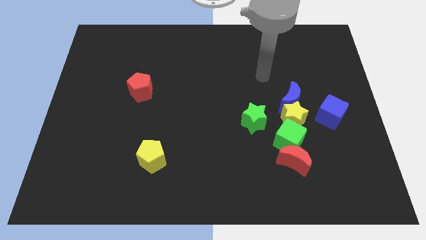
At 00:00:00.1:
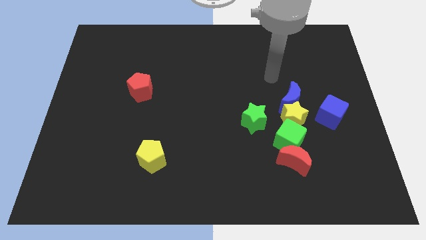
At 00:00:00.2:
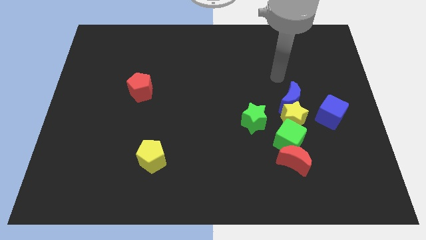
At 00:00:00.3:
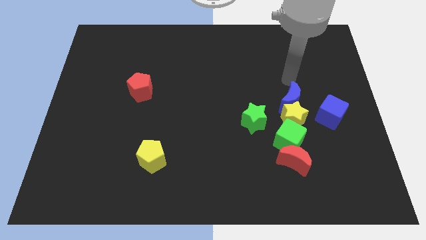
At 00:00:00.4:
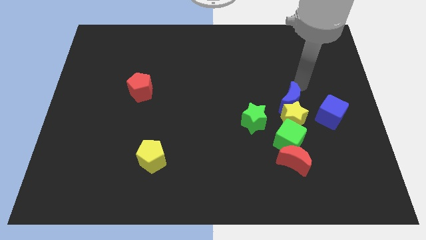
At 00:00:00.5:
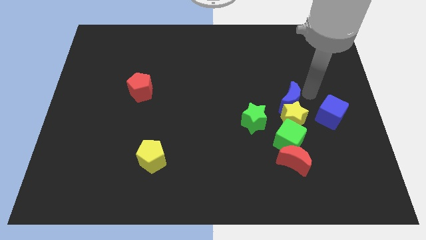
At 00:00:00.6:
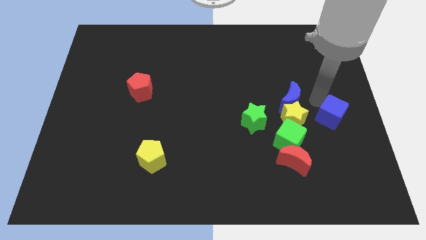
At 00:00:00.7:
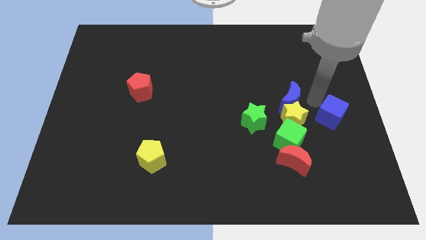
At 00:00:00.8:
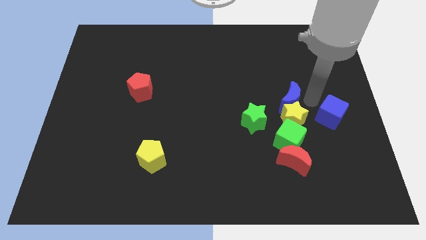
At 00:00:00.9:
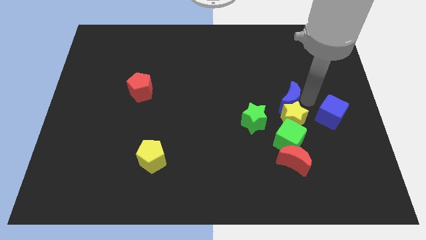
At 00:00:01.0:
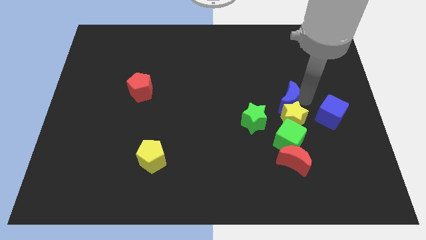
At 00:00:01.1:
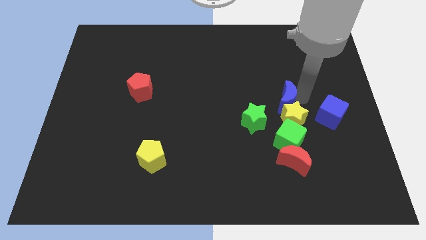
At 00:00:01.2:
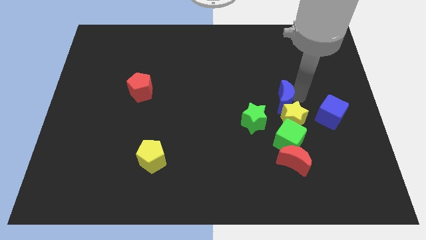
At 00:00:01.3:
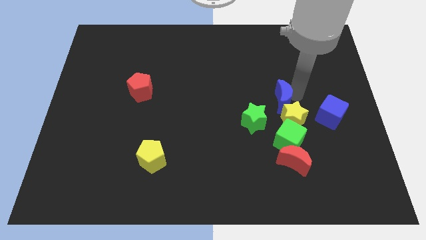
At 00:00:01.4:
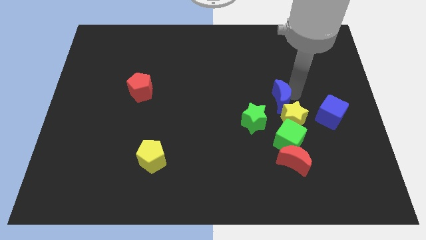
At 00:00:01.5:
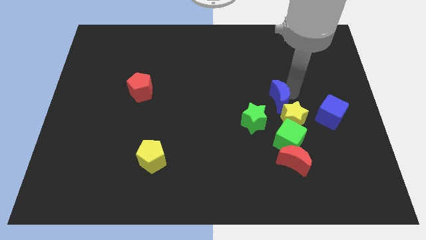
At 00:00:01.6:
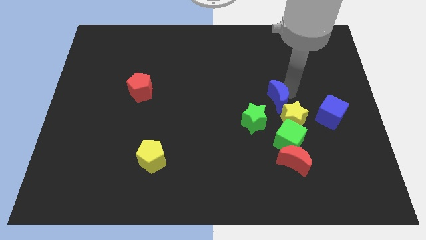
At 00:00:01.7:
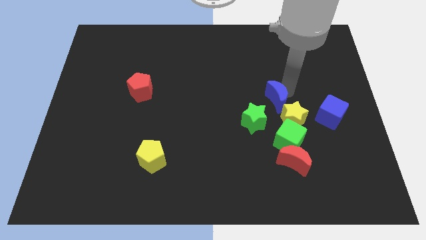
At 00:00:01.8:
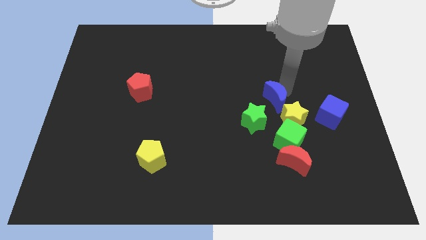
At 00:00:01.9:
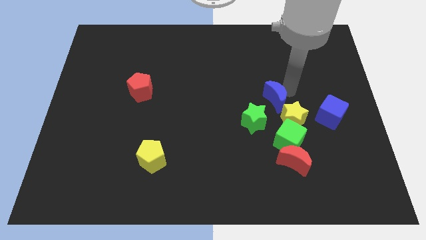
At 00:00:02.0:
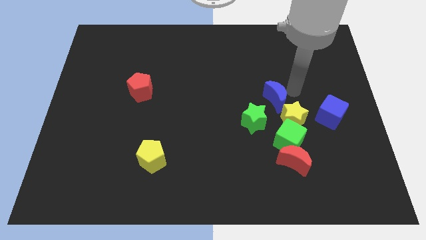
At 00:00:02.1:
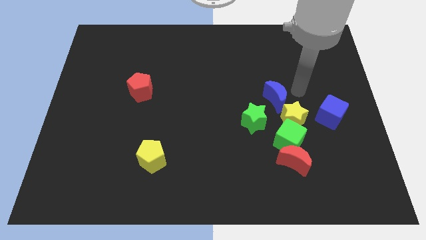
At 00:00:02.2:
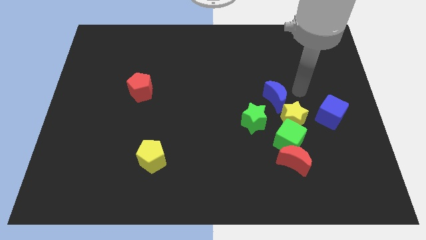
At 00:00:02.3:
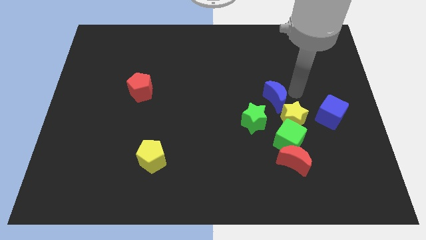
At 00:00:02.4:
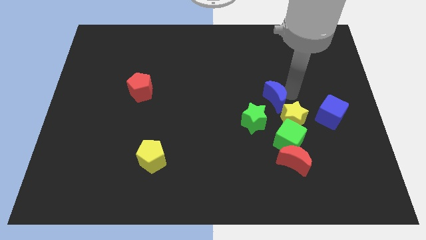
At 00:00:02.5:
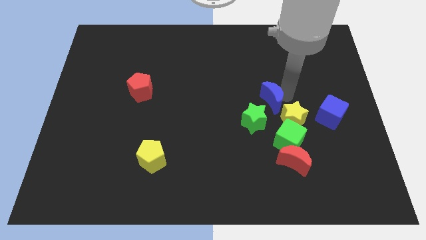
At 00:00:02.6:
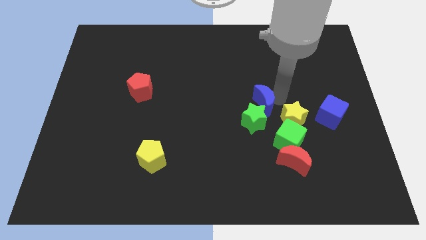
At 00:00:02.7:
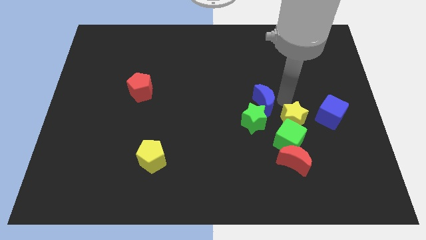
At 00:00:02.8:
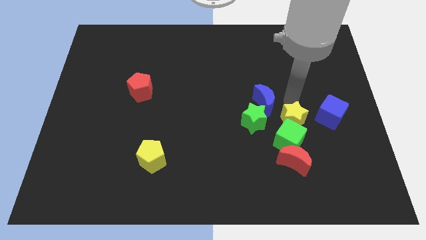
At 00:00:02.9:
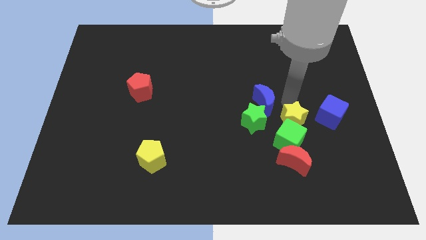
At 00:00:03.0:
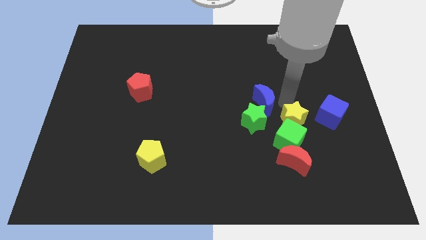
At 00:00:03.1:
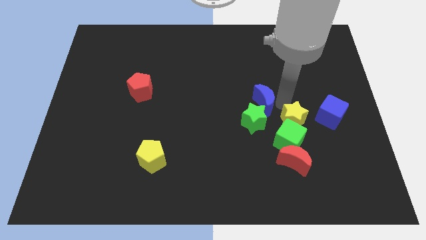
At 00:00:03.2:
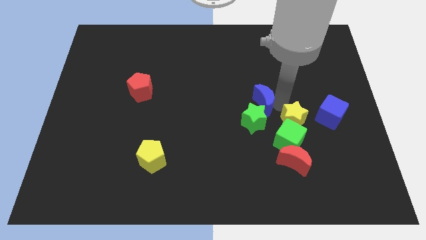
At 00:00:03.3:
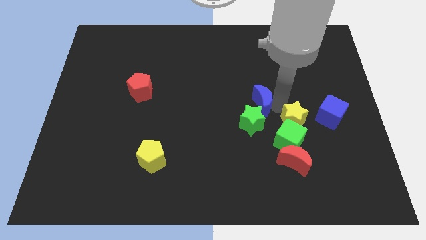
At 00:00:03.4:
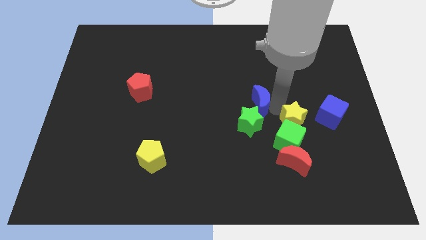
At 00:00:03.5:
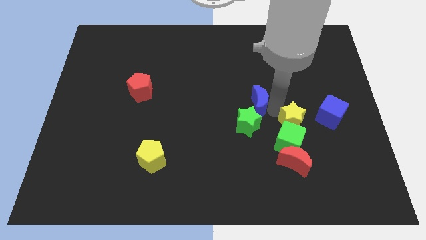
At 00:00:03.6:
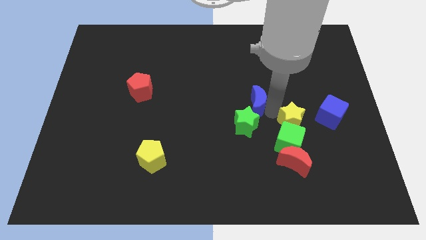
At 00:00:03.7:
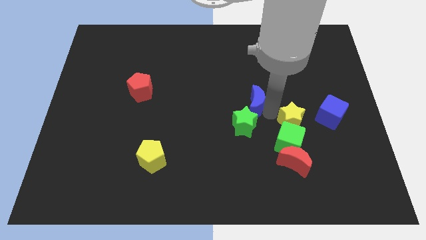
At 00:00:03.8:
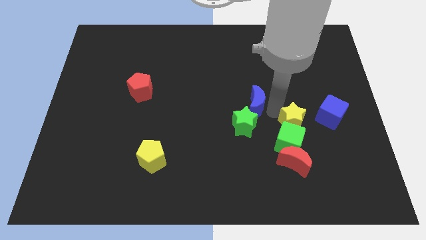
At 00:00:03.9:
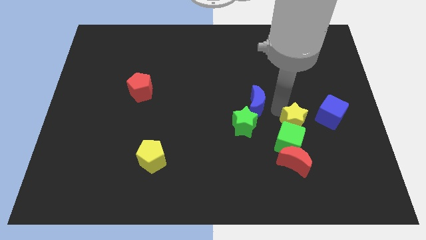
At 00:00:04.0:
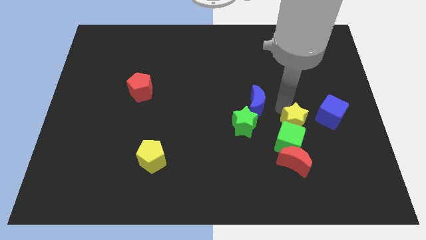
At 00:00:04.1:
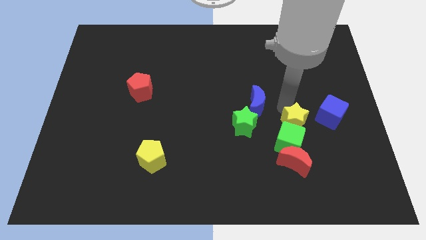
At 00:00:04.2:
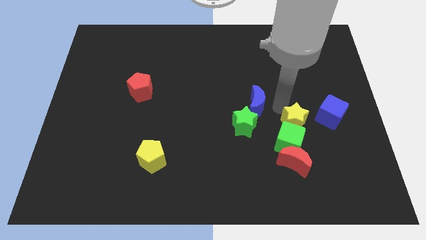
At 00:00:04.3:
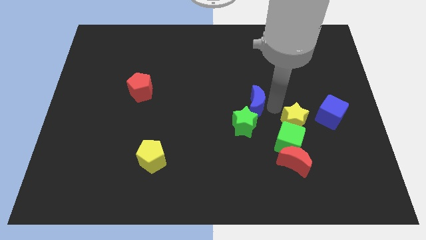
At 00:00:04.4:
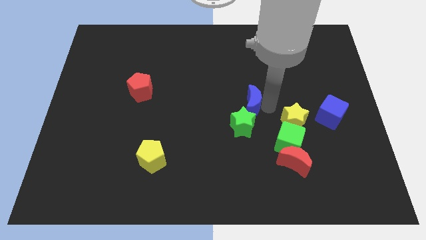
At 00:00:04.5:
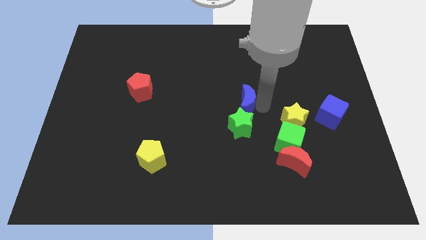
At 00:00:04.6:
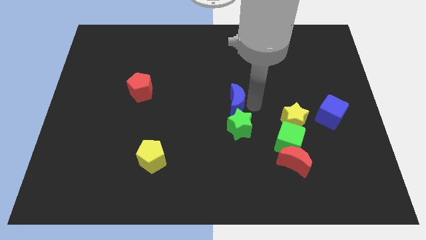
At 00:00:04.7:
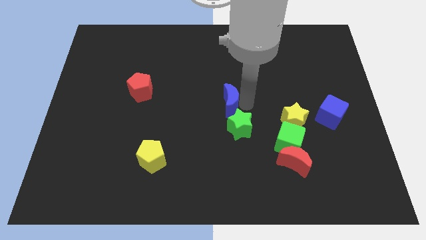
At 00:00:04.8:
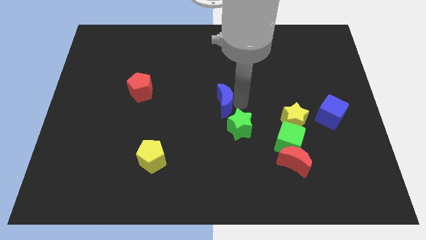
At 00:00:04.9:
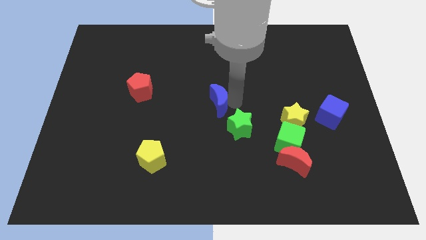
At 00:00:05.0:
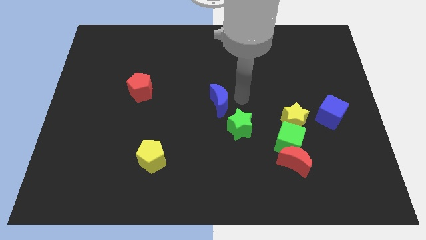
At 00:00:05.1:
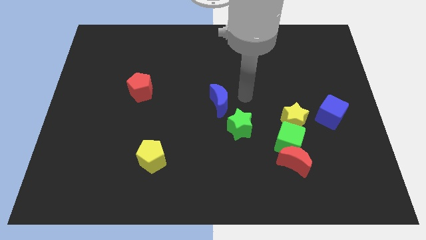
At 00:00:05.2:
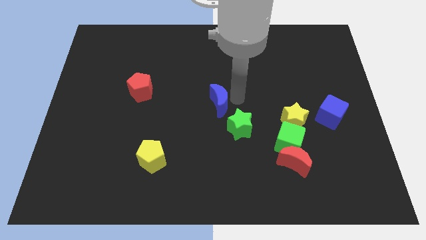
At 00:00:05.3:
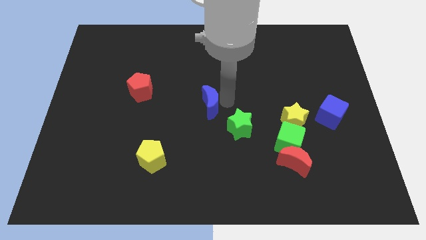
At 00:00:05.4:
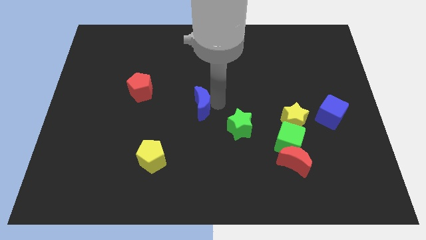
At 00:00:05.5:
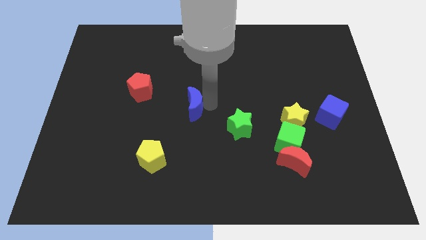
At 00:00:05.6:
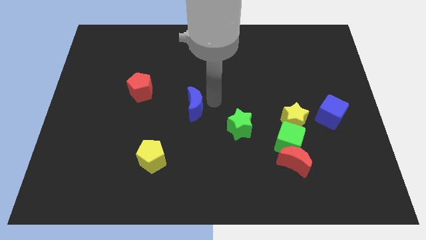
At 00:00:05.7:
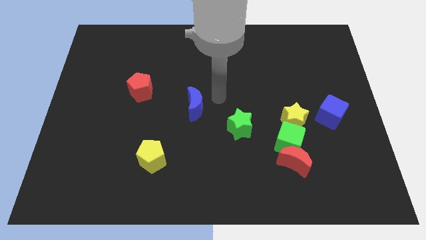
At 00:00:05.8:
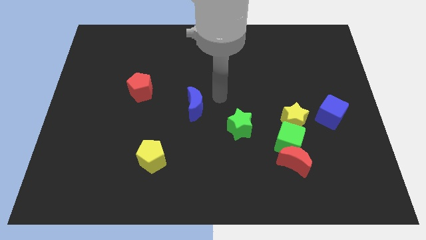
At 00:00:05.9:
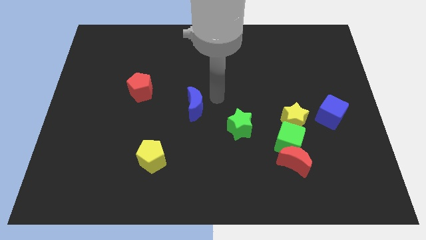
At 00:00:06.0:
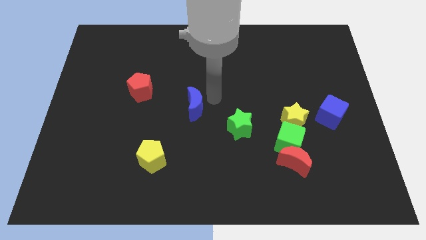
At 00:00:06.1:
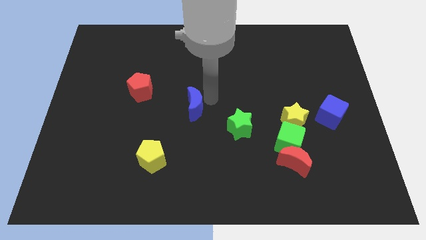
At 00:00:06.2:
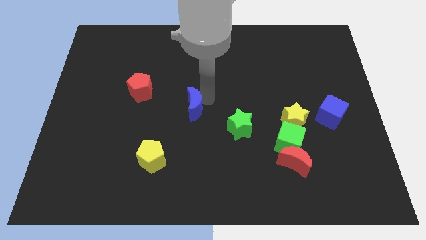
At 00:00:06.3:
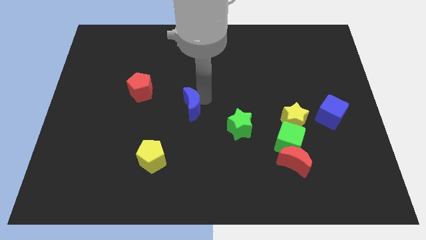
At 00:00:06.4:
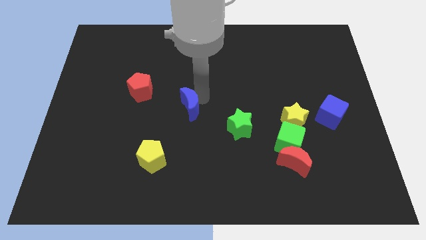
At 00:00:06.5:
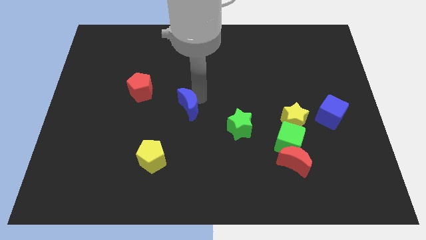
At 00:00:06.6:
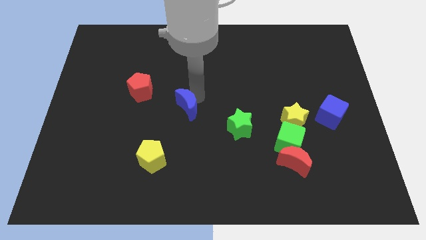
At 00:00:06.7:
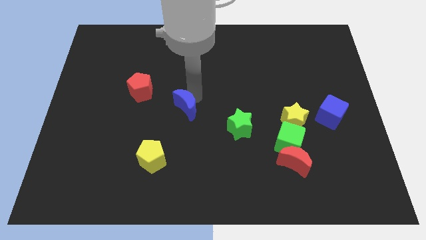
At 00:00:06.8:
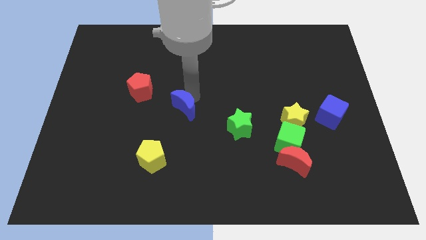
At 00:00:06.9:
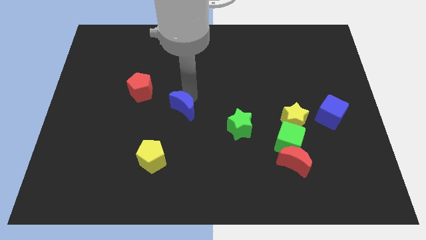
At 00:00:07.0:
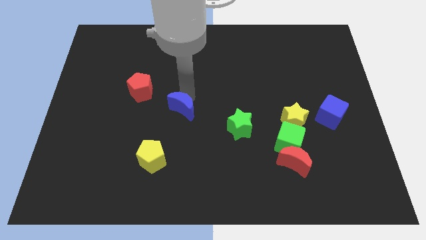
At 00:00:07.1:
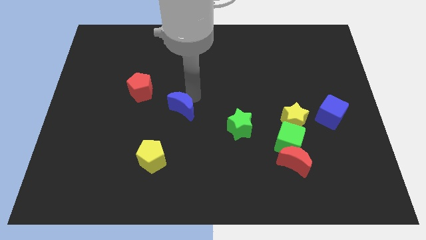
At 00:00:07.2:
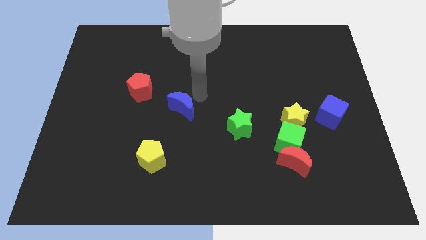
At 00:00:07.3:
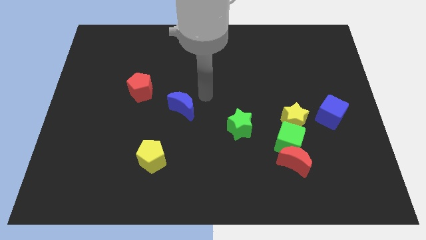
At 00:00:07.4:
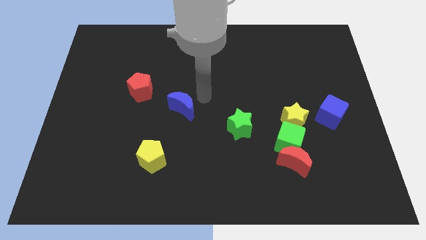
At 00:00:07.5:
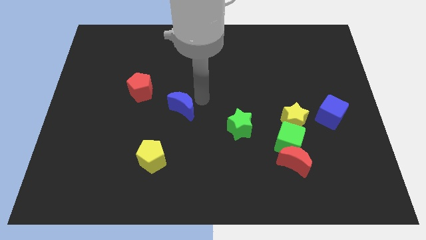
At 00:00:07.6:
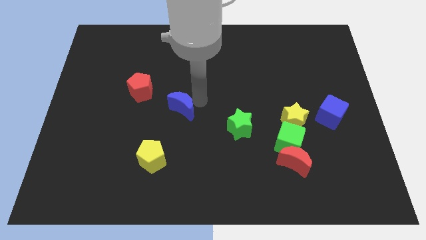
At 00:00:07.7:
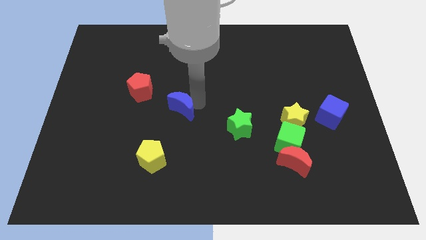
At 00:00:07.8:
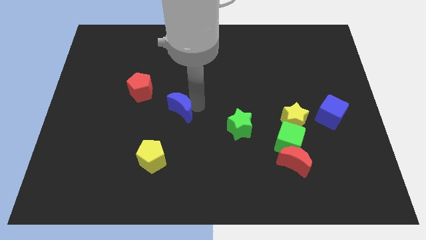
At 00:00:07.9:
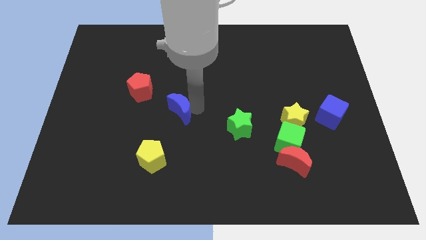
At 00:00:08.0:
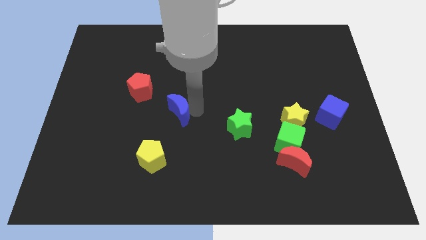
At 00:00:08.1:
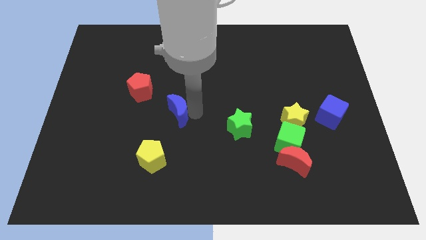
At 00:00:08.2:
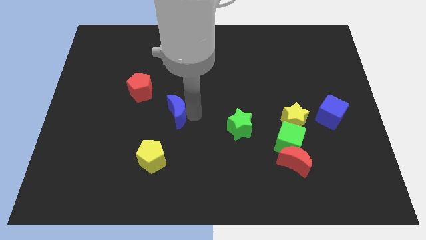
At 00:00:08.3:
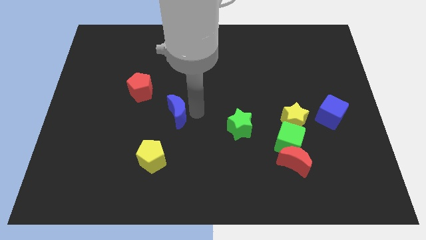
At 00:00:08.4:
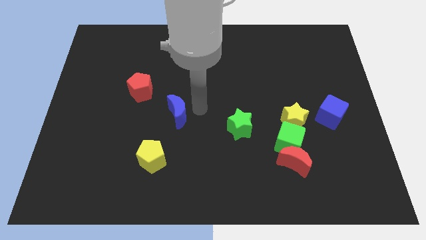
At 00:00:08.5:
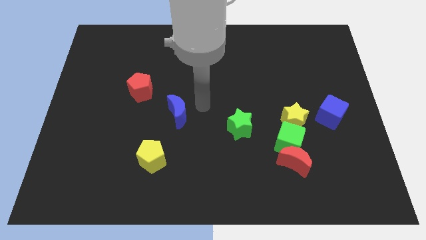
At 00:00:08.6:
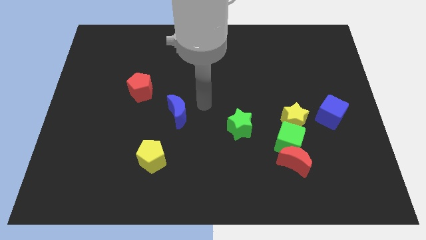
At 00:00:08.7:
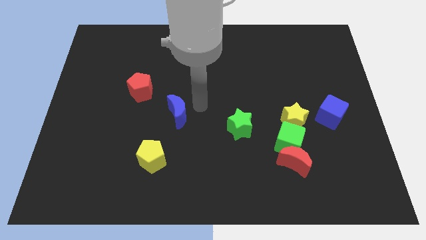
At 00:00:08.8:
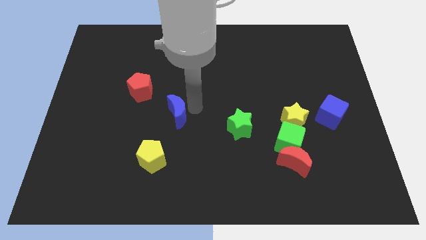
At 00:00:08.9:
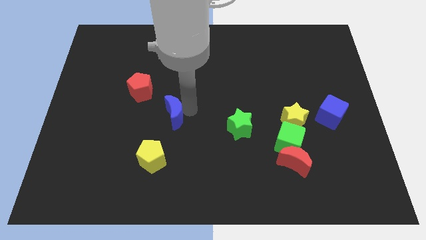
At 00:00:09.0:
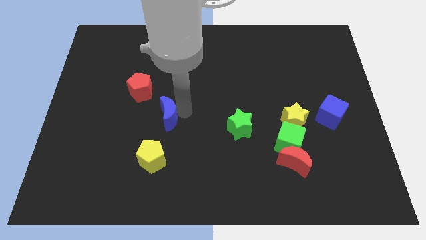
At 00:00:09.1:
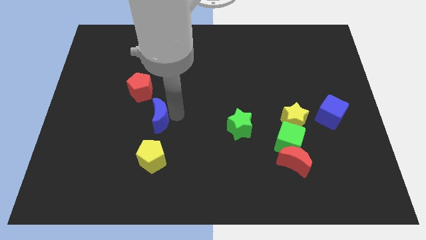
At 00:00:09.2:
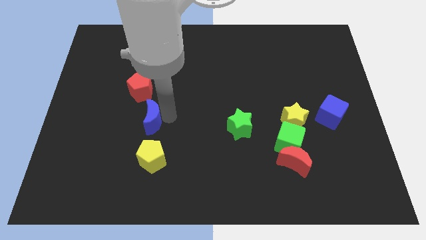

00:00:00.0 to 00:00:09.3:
push the blue moon below the red pentagon
